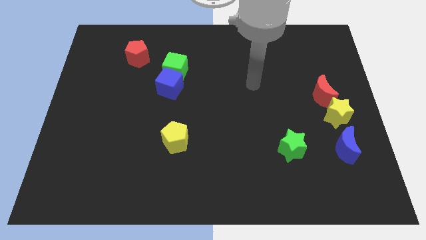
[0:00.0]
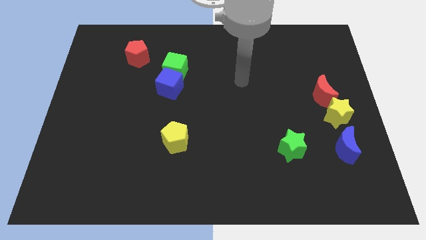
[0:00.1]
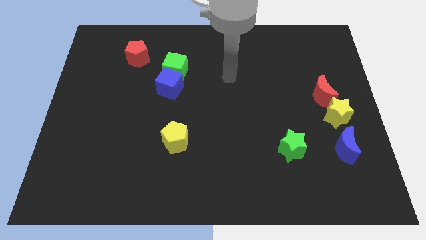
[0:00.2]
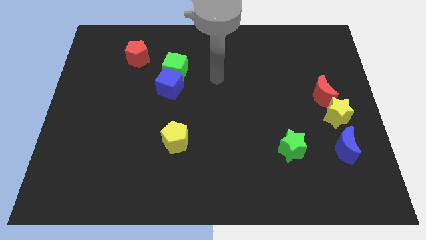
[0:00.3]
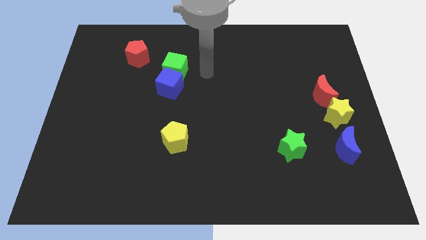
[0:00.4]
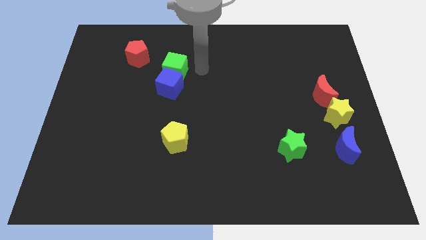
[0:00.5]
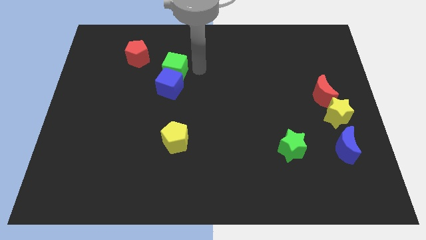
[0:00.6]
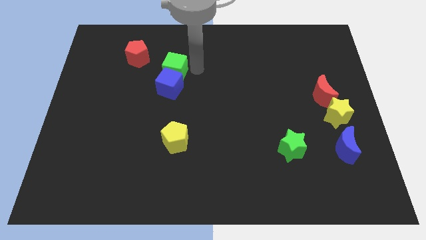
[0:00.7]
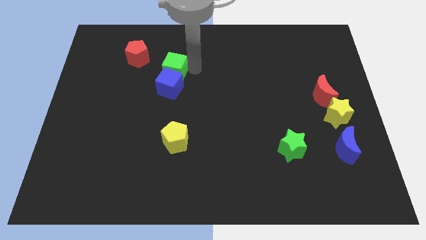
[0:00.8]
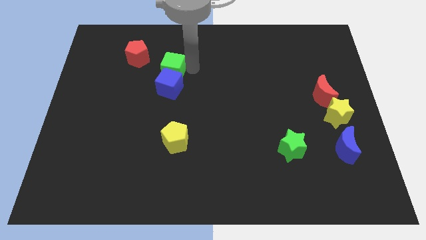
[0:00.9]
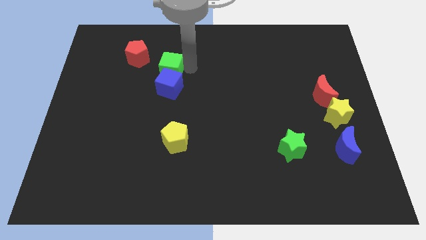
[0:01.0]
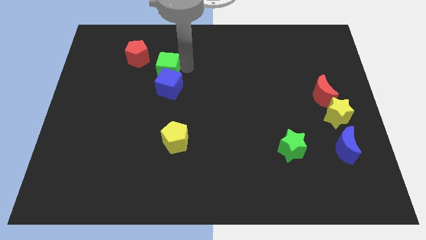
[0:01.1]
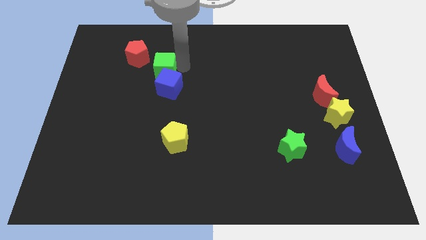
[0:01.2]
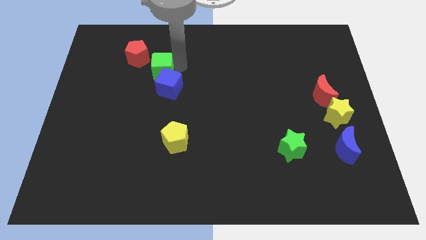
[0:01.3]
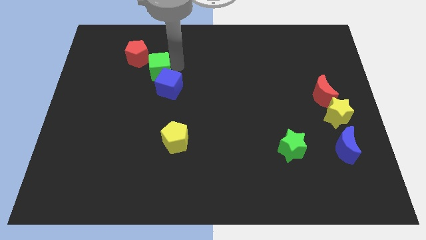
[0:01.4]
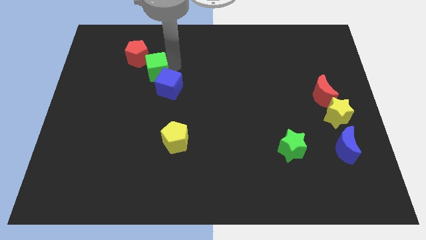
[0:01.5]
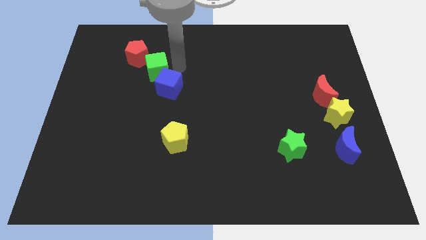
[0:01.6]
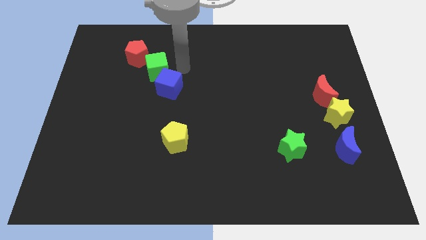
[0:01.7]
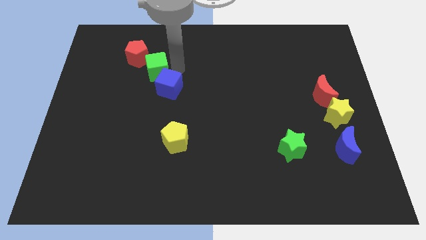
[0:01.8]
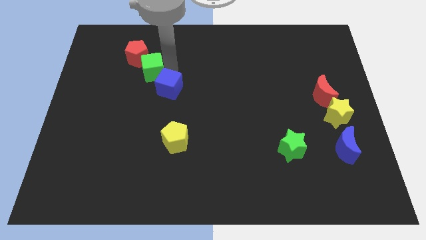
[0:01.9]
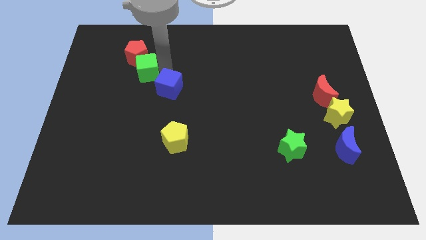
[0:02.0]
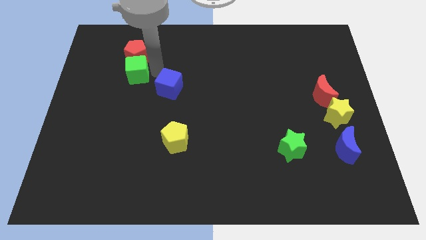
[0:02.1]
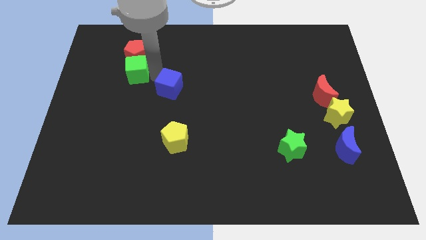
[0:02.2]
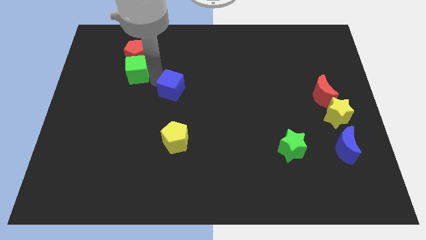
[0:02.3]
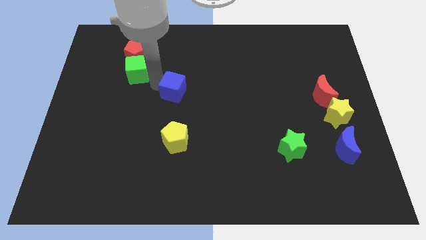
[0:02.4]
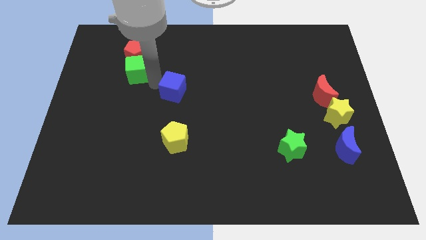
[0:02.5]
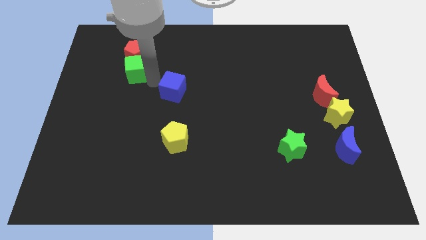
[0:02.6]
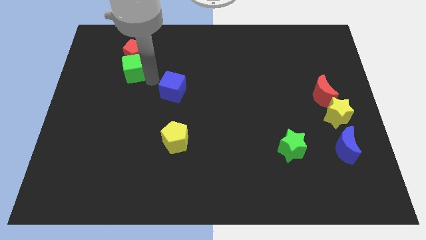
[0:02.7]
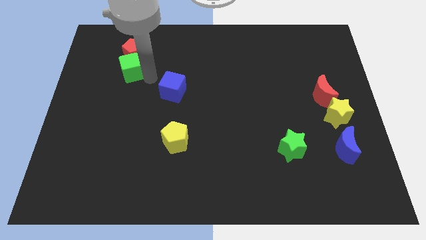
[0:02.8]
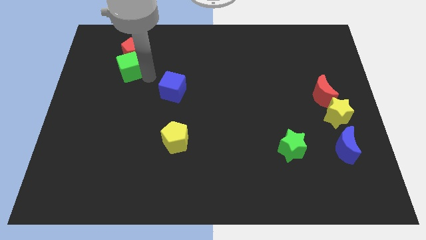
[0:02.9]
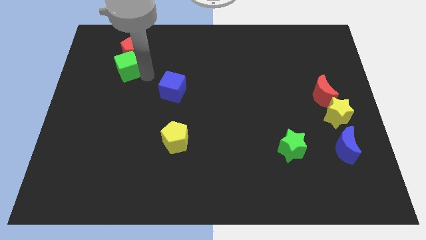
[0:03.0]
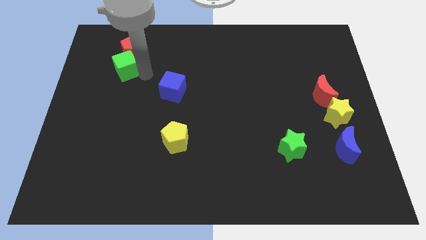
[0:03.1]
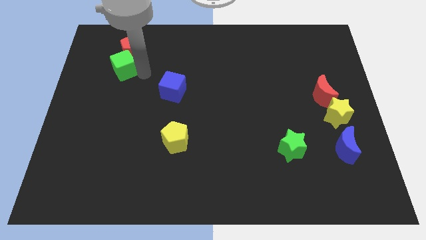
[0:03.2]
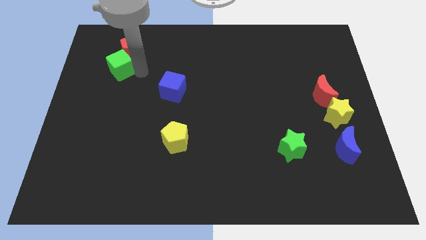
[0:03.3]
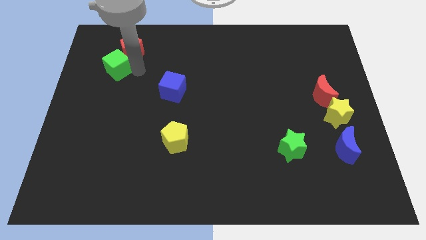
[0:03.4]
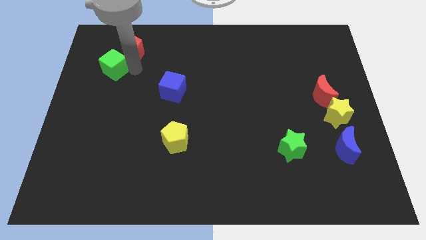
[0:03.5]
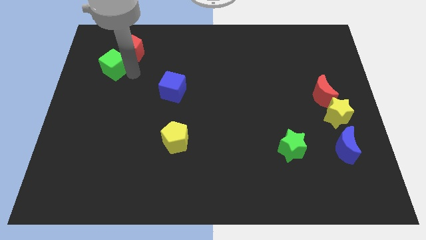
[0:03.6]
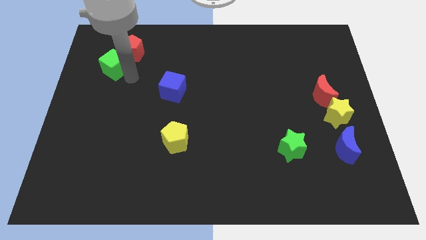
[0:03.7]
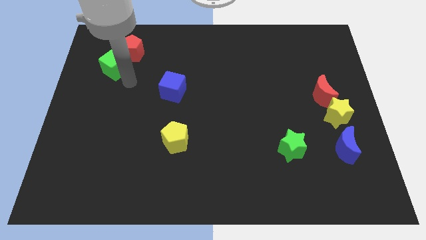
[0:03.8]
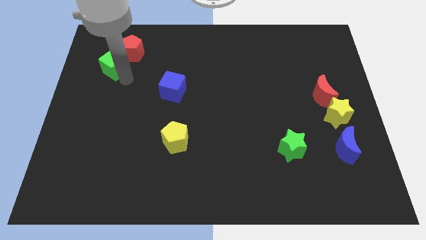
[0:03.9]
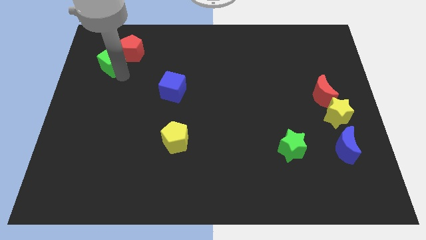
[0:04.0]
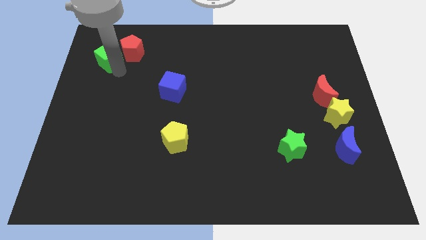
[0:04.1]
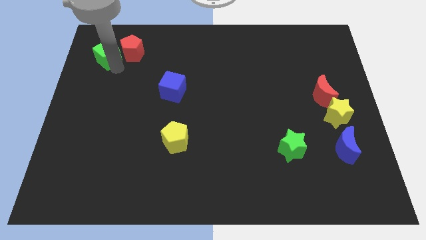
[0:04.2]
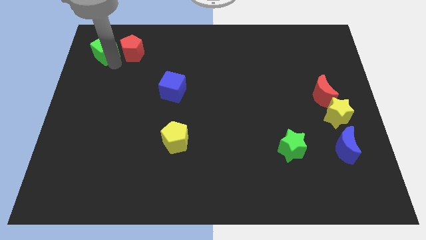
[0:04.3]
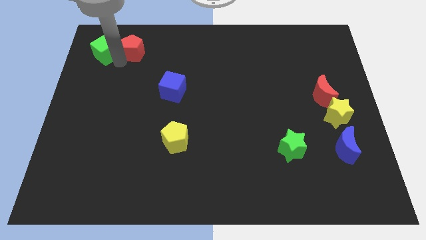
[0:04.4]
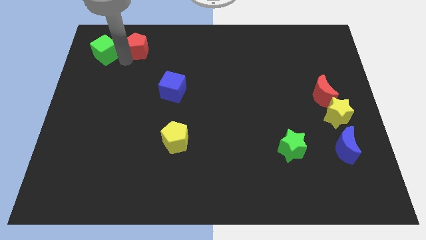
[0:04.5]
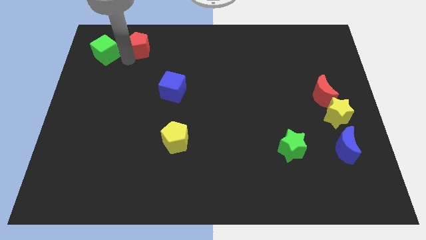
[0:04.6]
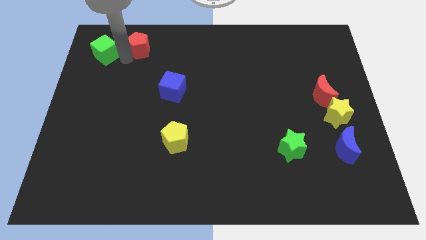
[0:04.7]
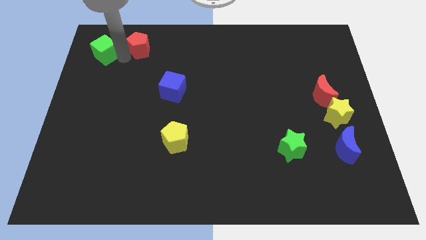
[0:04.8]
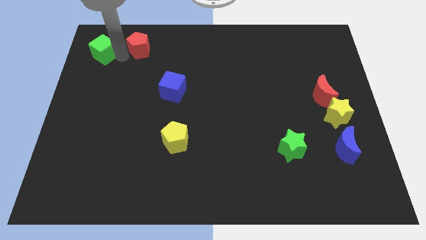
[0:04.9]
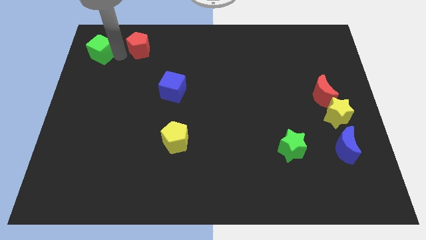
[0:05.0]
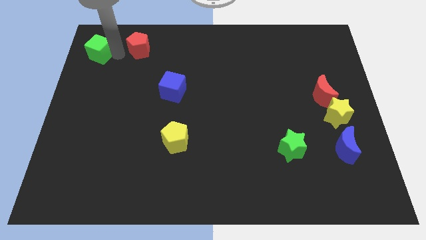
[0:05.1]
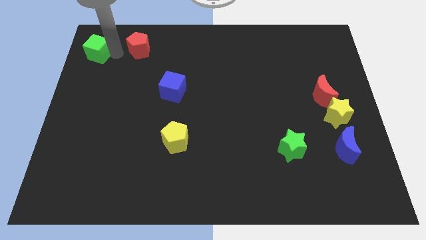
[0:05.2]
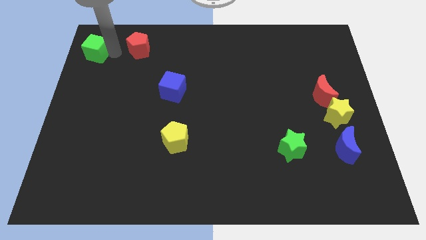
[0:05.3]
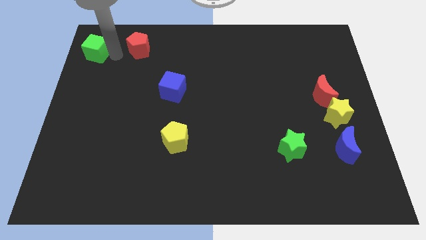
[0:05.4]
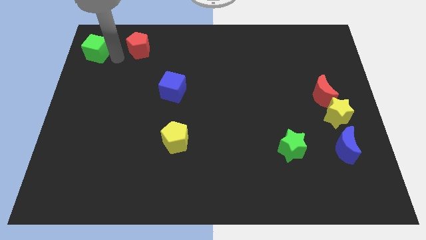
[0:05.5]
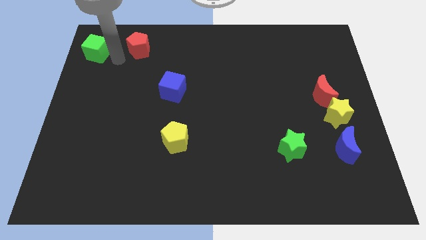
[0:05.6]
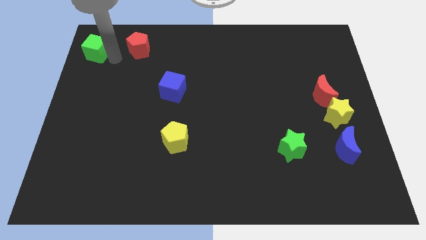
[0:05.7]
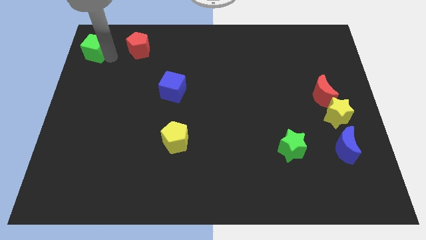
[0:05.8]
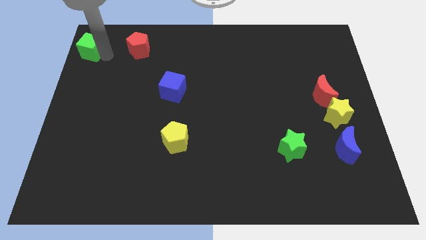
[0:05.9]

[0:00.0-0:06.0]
slide the green cube to the upper left corner

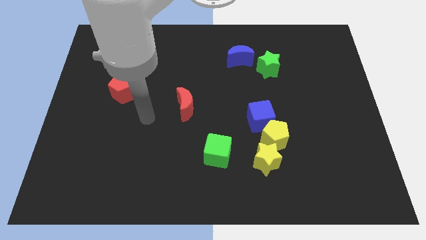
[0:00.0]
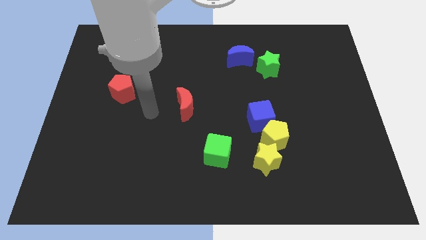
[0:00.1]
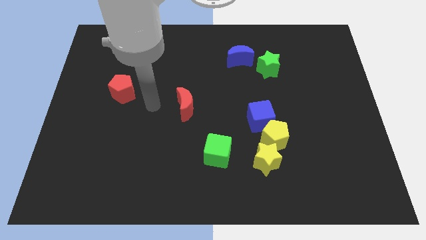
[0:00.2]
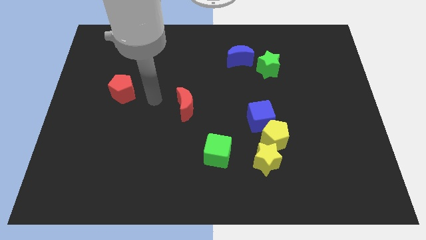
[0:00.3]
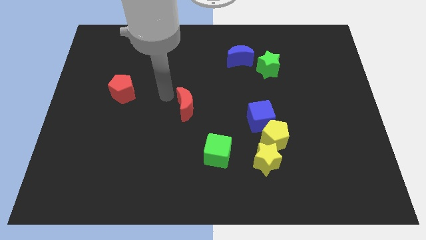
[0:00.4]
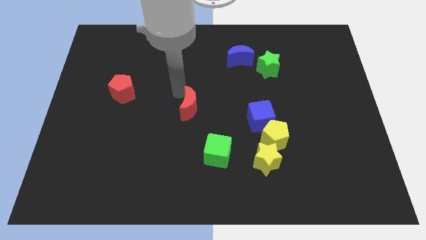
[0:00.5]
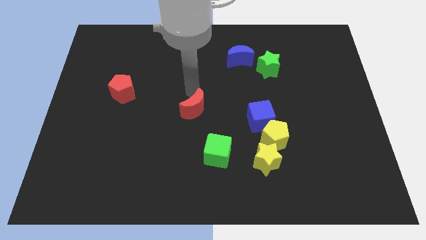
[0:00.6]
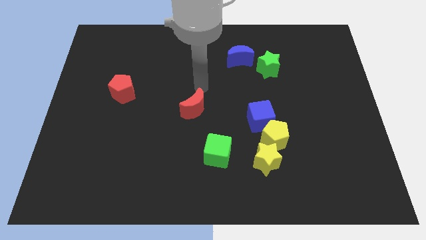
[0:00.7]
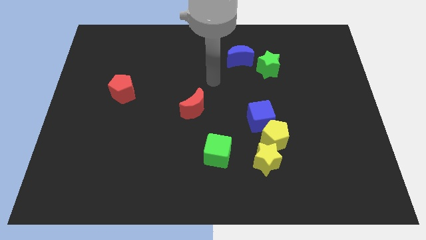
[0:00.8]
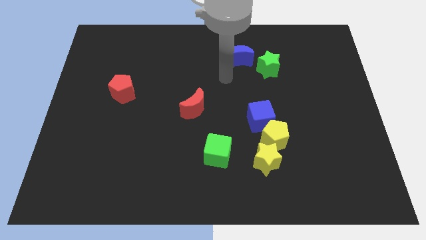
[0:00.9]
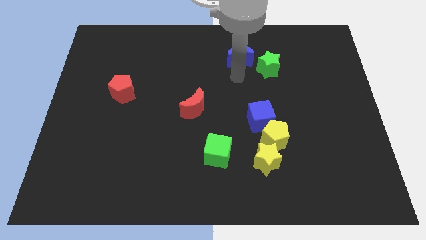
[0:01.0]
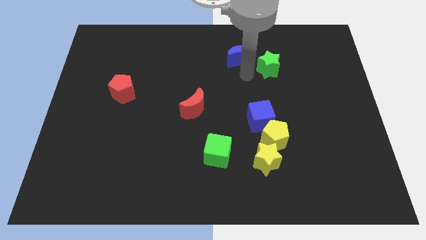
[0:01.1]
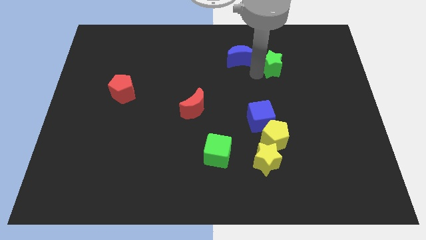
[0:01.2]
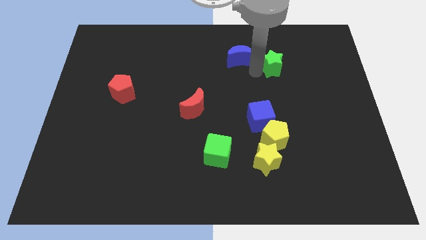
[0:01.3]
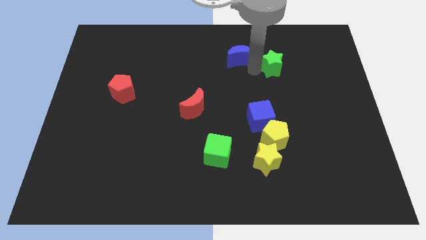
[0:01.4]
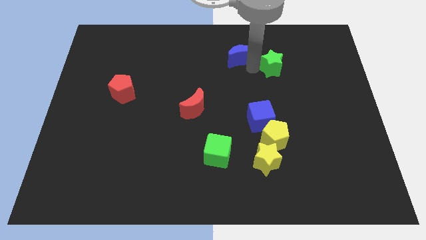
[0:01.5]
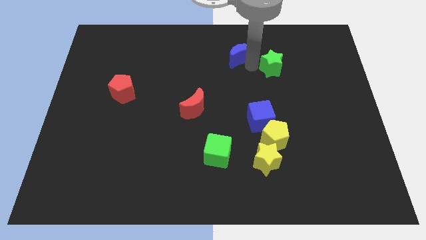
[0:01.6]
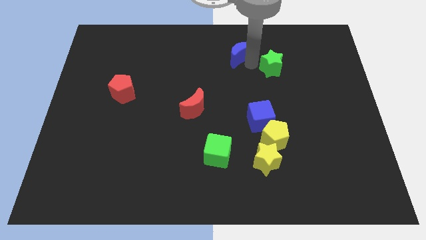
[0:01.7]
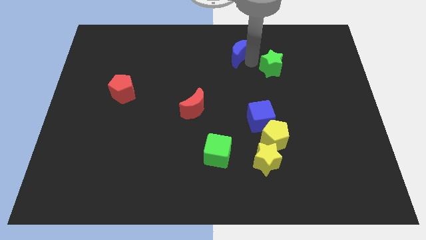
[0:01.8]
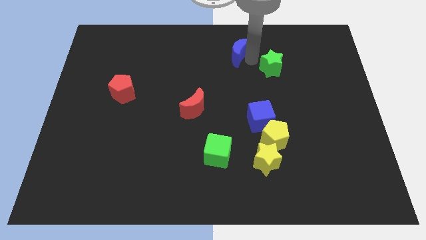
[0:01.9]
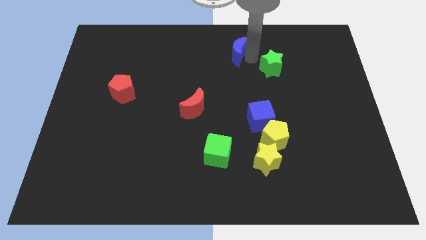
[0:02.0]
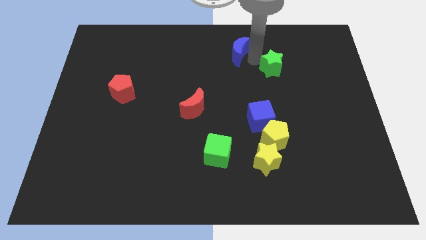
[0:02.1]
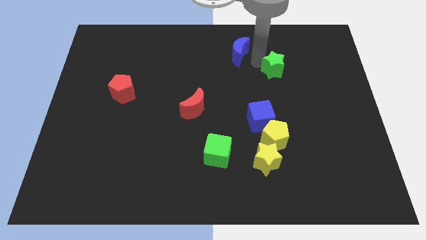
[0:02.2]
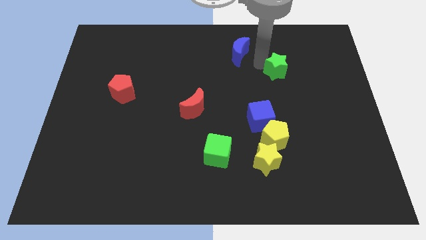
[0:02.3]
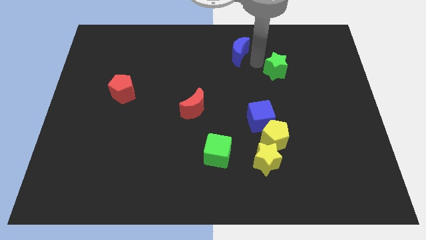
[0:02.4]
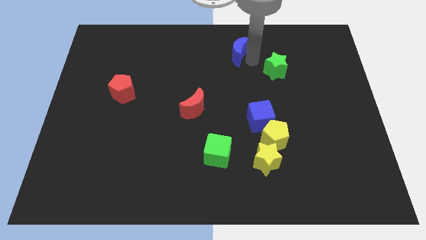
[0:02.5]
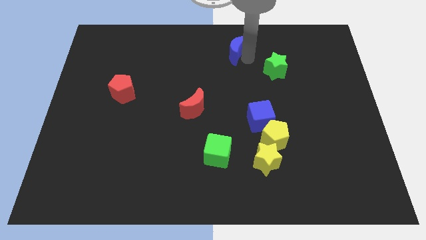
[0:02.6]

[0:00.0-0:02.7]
slide the blue moon to the top
